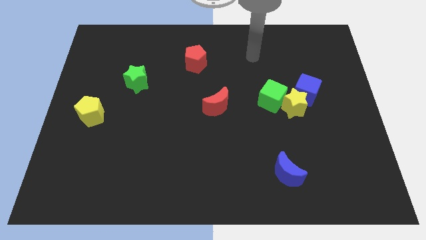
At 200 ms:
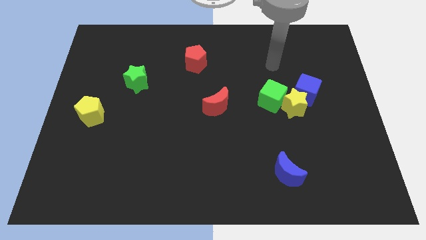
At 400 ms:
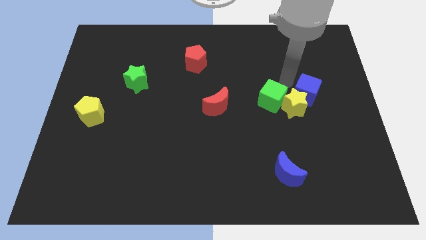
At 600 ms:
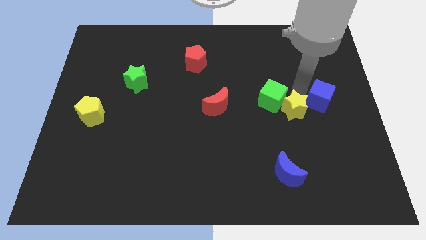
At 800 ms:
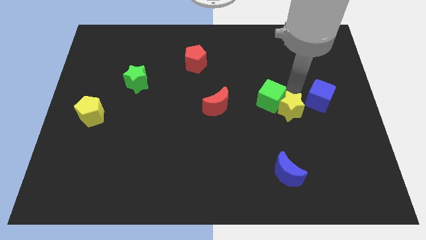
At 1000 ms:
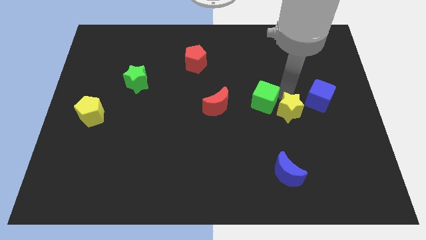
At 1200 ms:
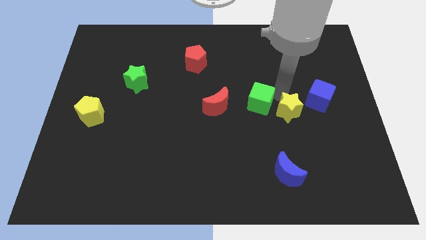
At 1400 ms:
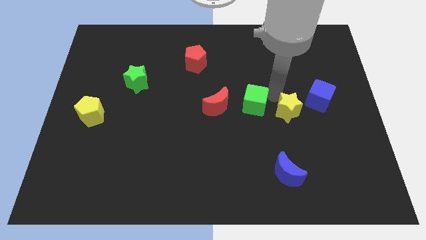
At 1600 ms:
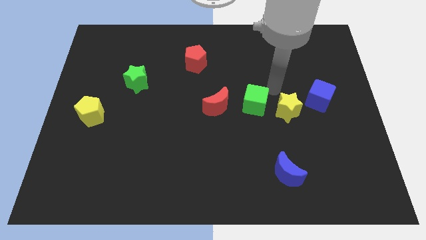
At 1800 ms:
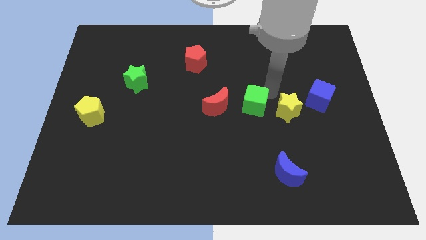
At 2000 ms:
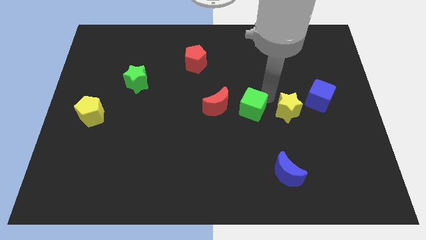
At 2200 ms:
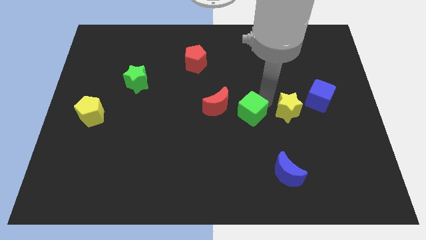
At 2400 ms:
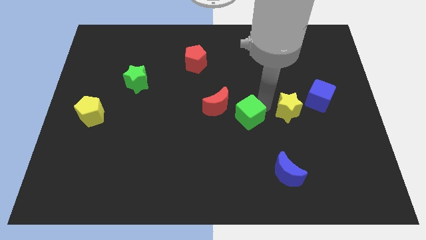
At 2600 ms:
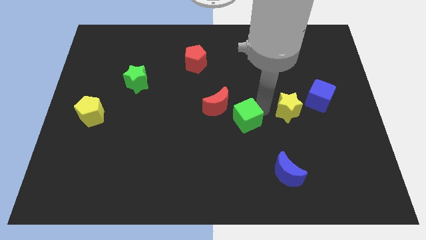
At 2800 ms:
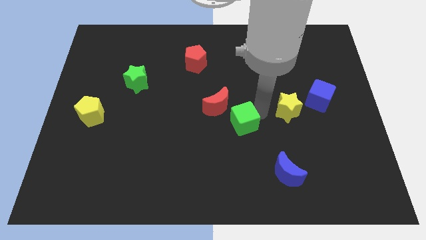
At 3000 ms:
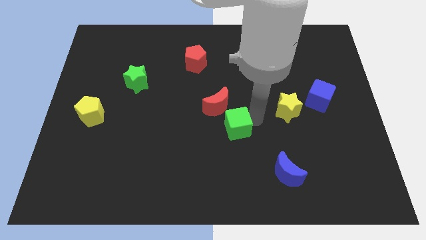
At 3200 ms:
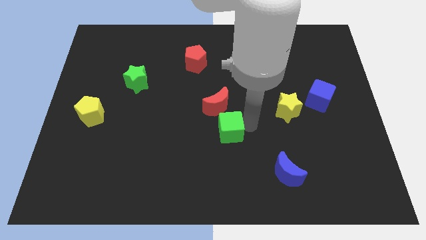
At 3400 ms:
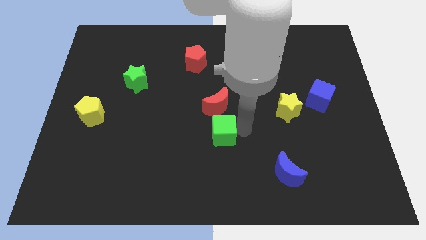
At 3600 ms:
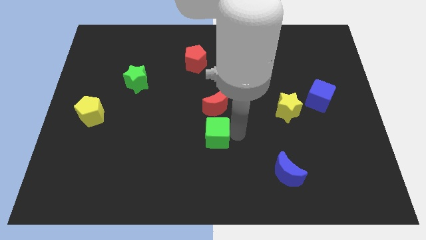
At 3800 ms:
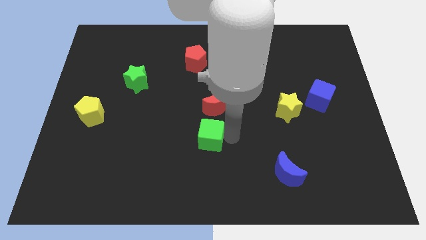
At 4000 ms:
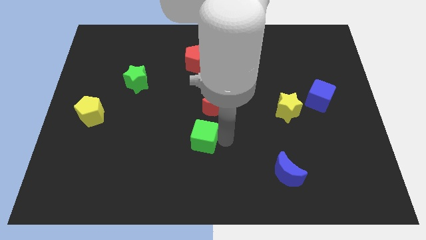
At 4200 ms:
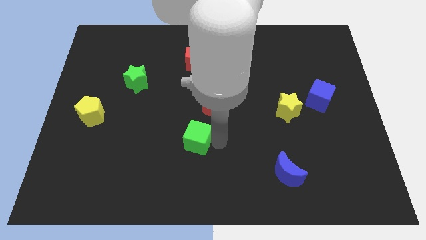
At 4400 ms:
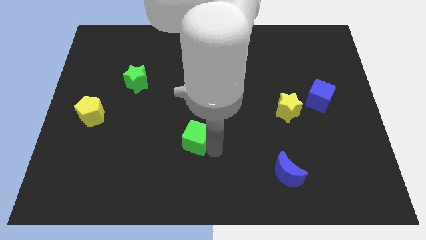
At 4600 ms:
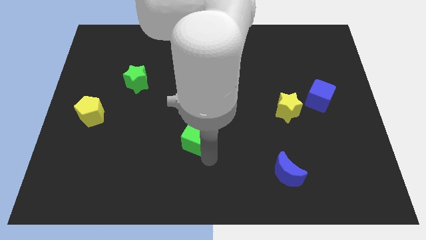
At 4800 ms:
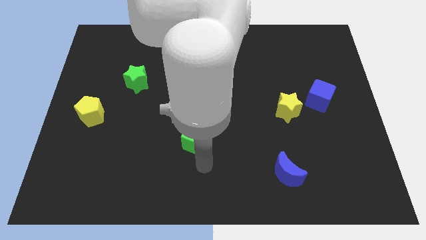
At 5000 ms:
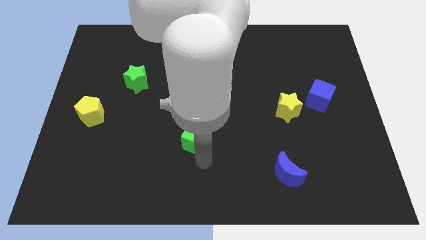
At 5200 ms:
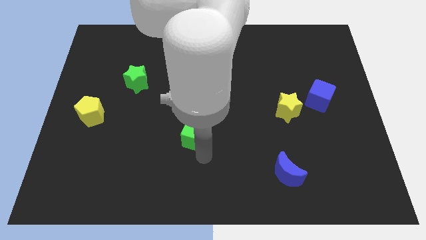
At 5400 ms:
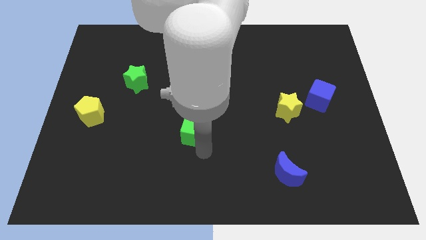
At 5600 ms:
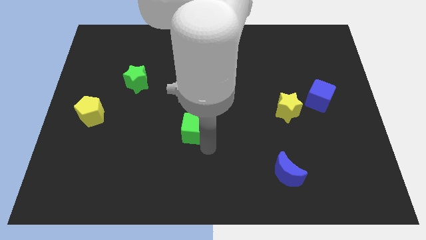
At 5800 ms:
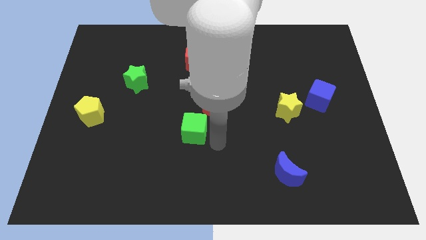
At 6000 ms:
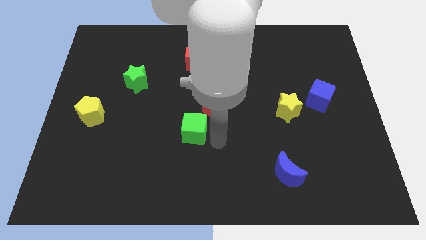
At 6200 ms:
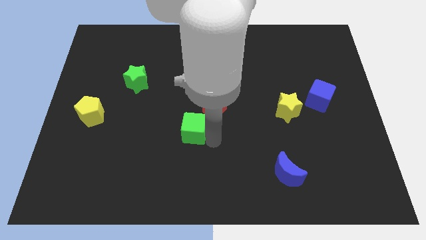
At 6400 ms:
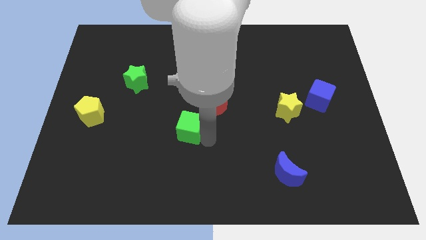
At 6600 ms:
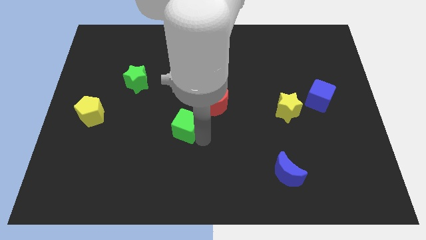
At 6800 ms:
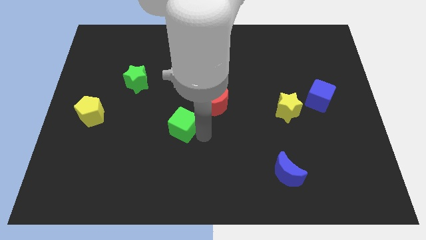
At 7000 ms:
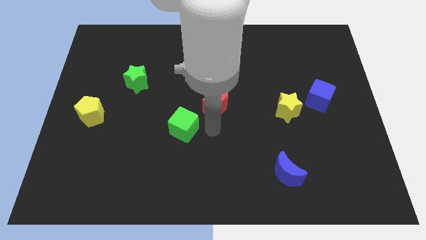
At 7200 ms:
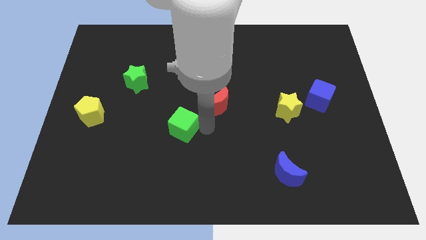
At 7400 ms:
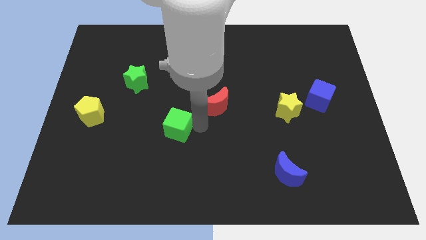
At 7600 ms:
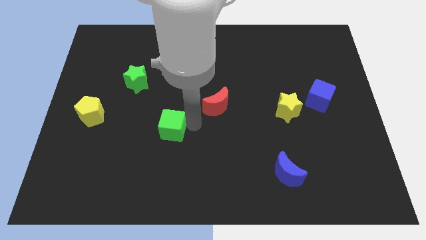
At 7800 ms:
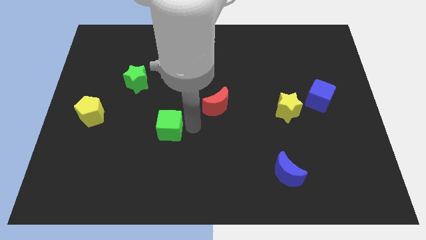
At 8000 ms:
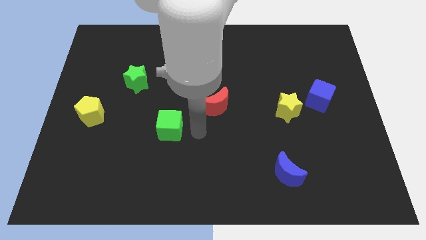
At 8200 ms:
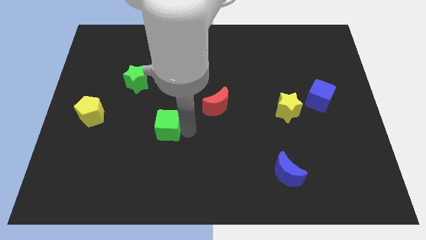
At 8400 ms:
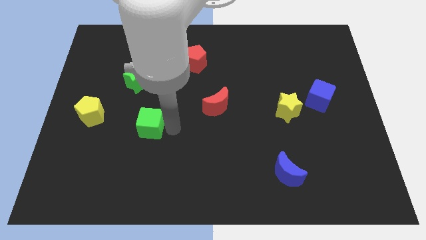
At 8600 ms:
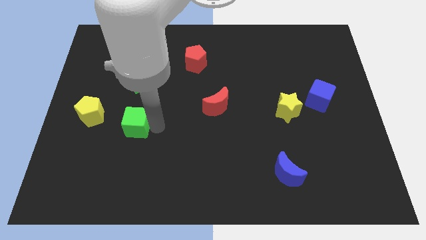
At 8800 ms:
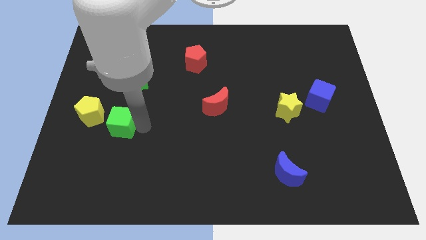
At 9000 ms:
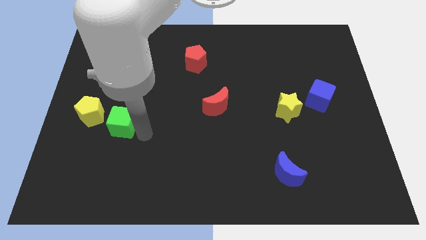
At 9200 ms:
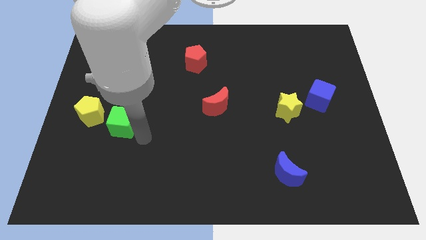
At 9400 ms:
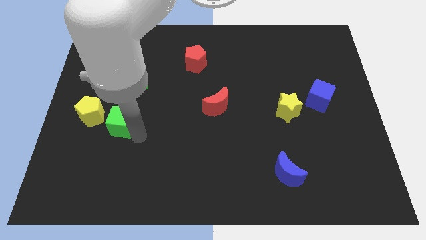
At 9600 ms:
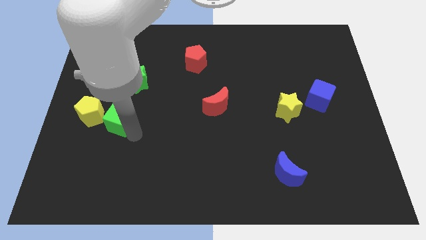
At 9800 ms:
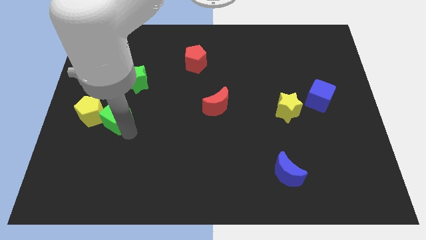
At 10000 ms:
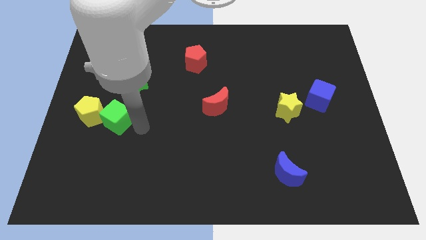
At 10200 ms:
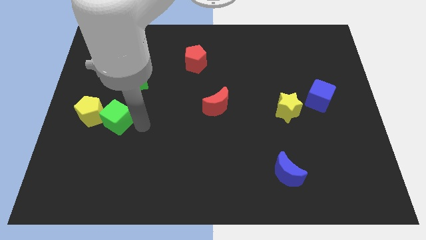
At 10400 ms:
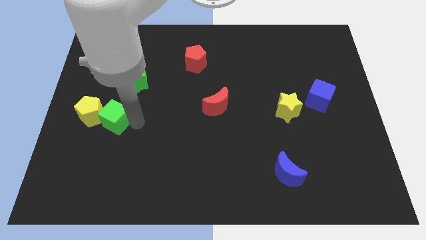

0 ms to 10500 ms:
move the green cube towards the yellow pentagon

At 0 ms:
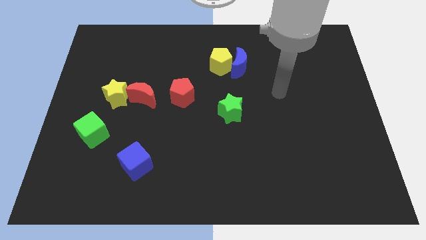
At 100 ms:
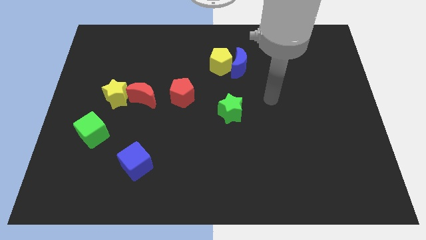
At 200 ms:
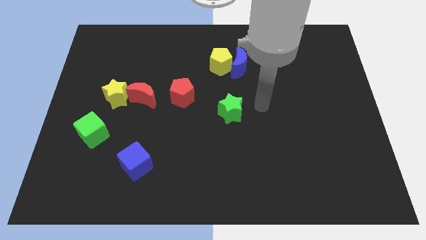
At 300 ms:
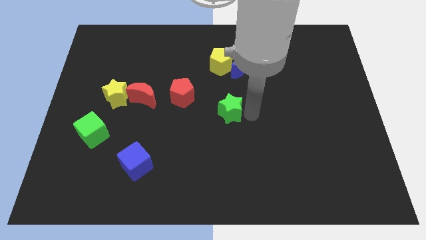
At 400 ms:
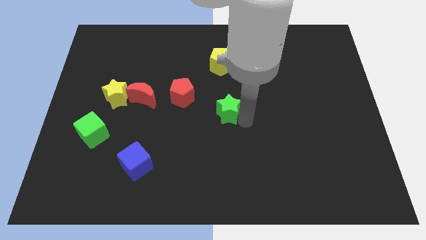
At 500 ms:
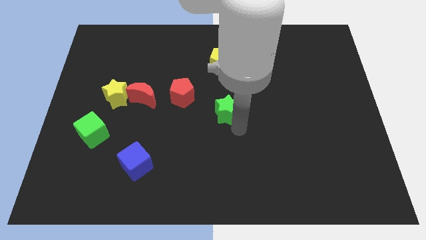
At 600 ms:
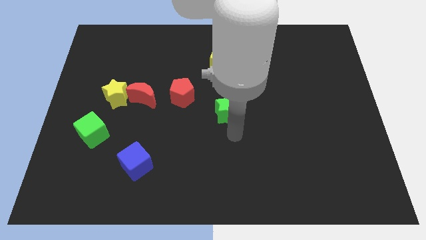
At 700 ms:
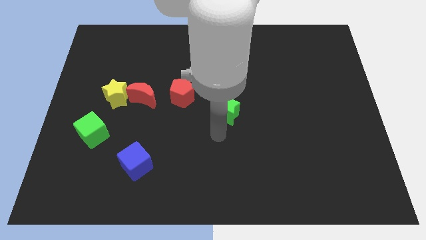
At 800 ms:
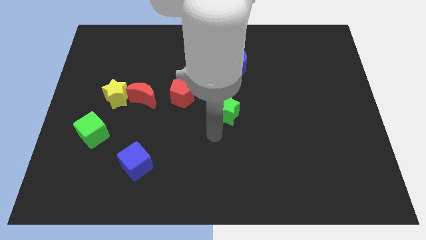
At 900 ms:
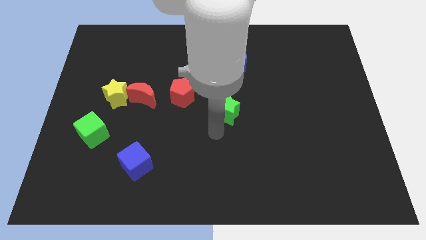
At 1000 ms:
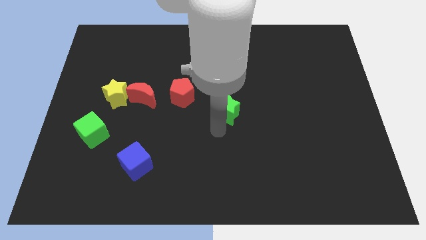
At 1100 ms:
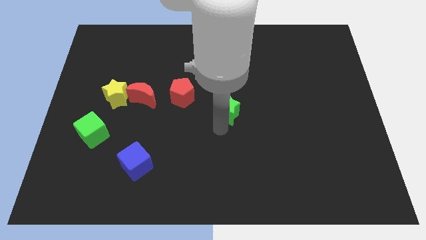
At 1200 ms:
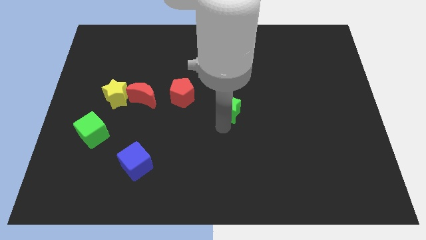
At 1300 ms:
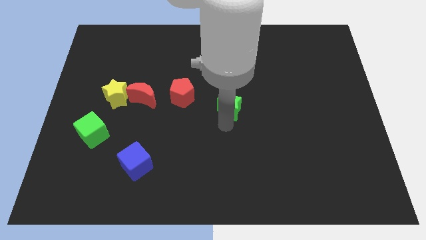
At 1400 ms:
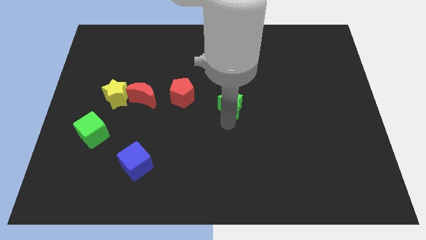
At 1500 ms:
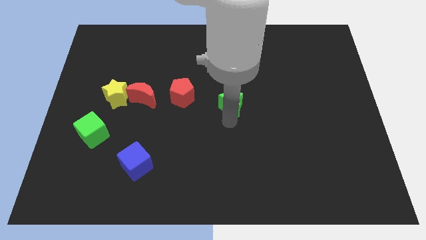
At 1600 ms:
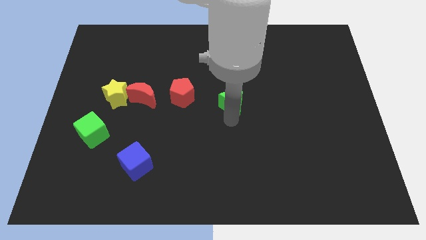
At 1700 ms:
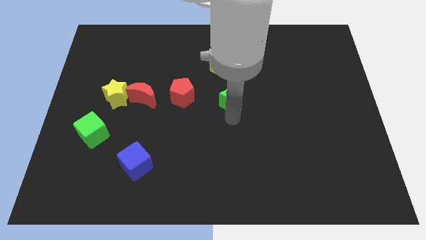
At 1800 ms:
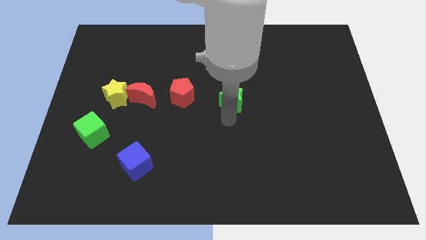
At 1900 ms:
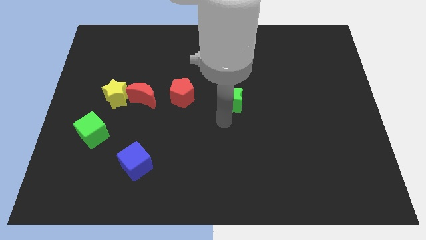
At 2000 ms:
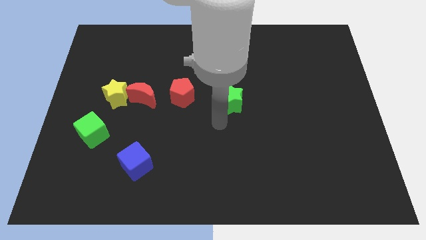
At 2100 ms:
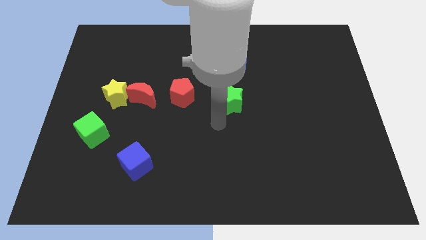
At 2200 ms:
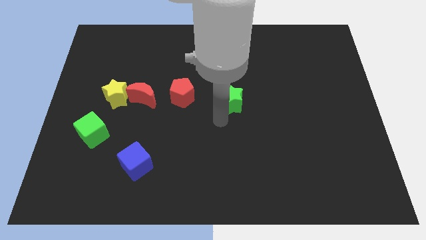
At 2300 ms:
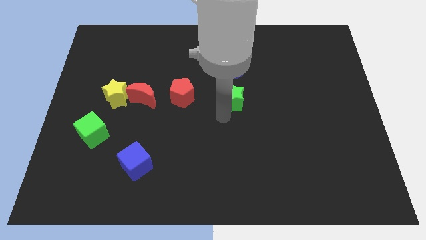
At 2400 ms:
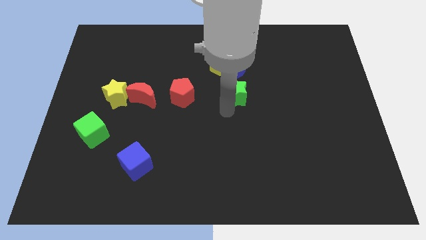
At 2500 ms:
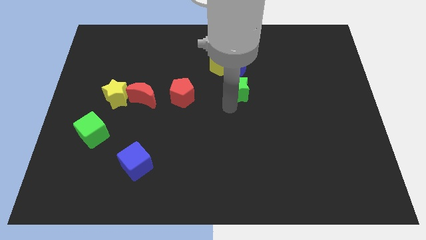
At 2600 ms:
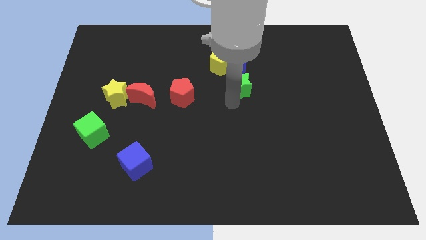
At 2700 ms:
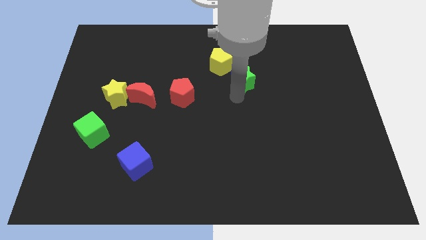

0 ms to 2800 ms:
put the green star towards the blue moon
